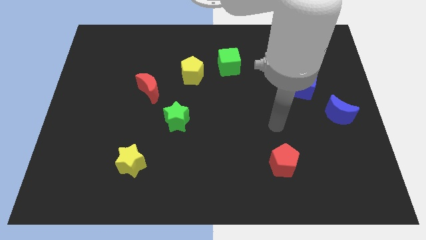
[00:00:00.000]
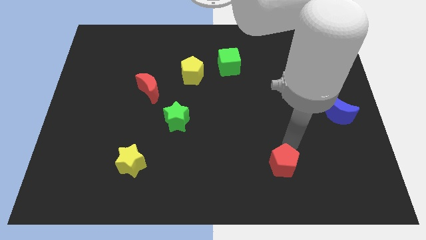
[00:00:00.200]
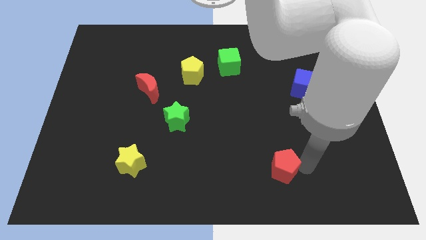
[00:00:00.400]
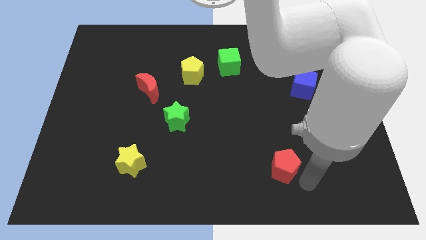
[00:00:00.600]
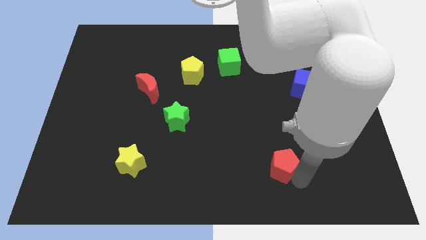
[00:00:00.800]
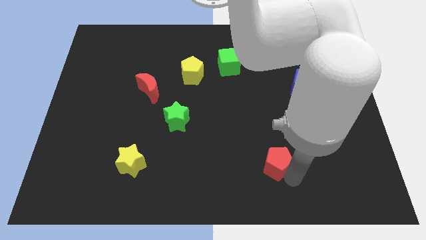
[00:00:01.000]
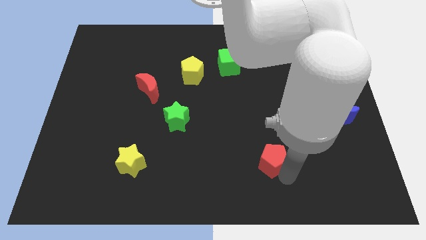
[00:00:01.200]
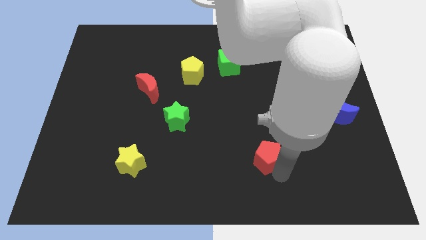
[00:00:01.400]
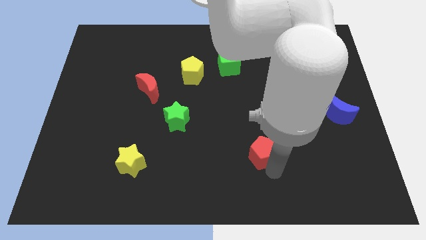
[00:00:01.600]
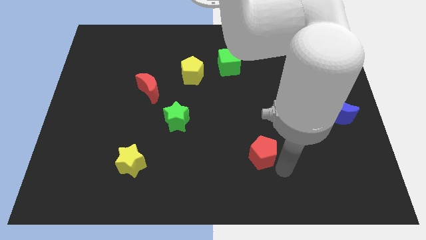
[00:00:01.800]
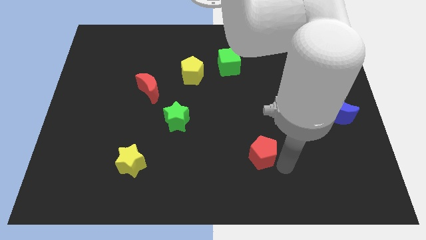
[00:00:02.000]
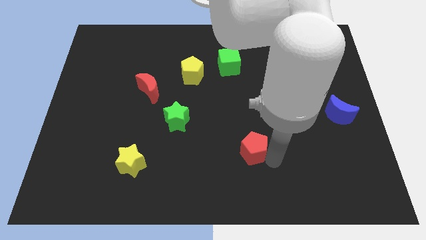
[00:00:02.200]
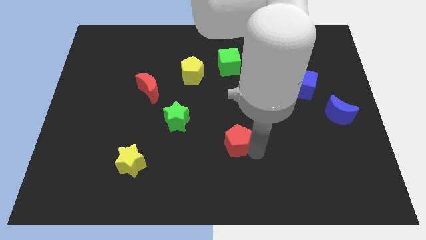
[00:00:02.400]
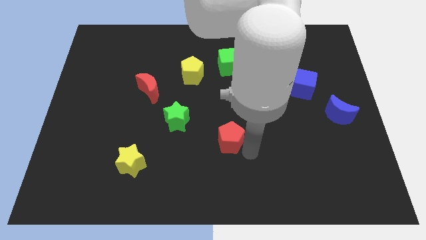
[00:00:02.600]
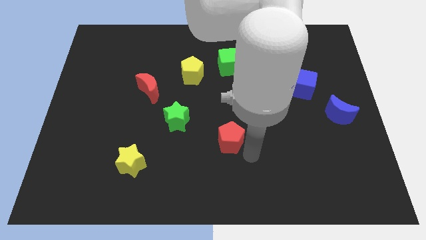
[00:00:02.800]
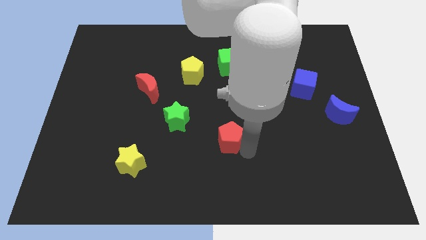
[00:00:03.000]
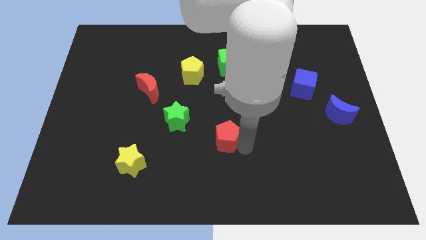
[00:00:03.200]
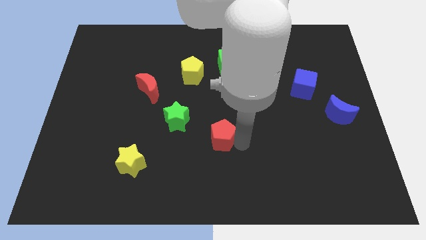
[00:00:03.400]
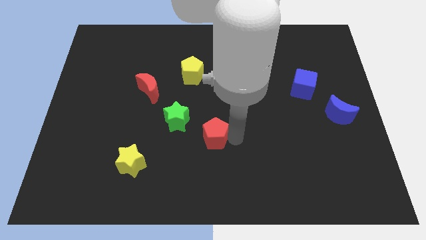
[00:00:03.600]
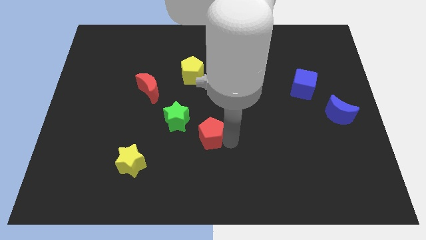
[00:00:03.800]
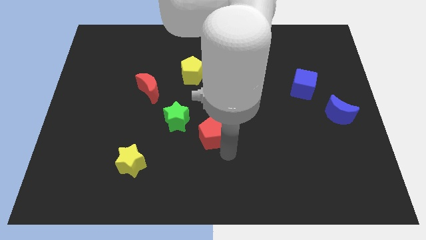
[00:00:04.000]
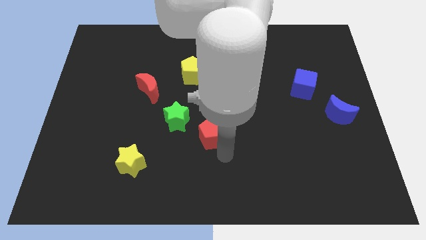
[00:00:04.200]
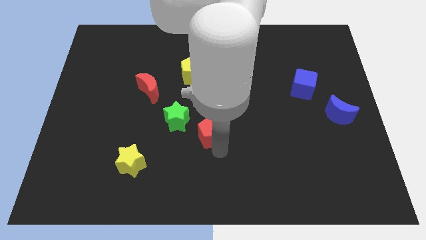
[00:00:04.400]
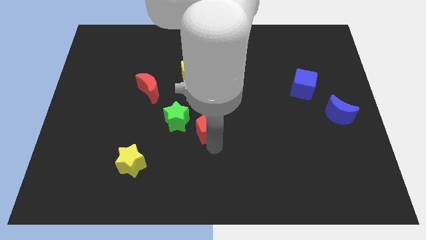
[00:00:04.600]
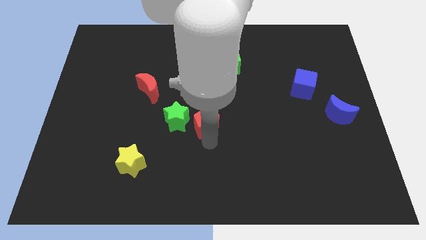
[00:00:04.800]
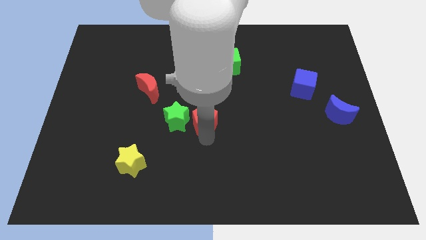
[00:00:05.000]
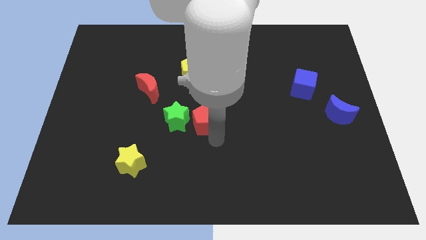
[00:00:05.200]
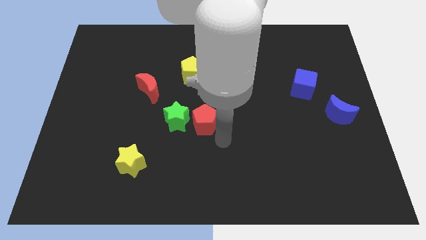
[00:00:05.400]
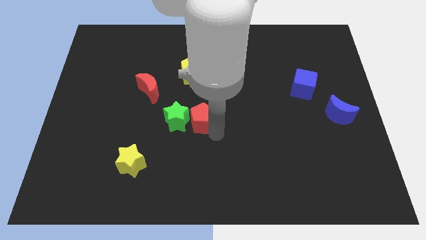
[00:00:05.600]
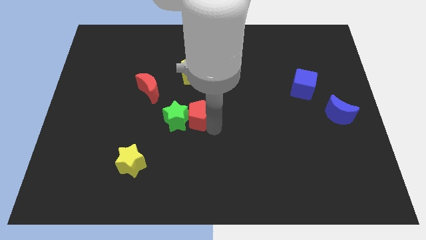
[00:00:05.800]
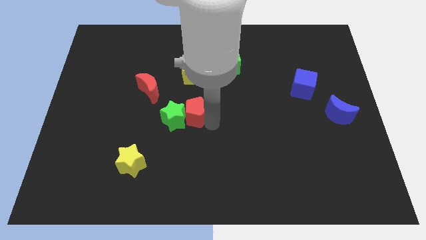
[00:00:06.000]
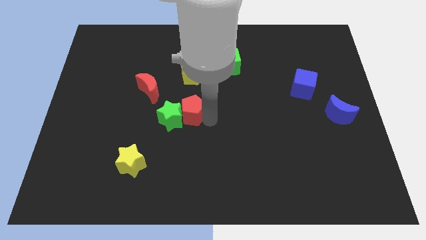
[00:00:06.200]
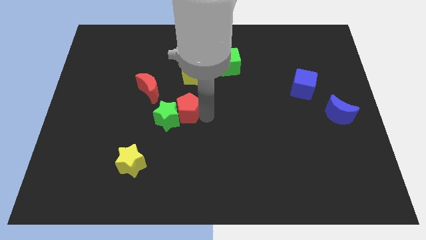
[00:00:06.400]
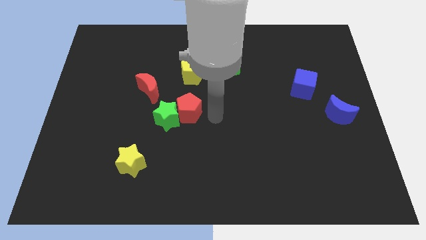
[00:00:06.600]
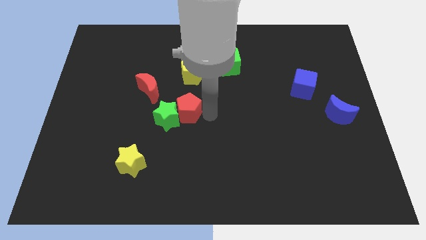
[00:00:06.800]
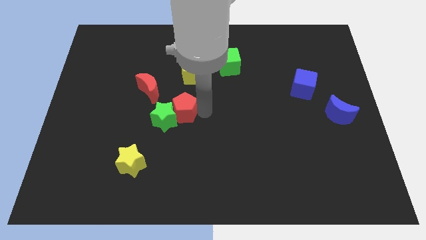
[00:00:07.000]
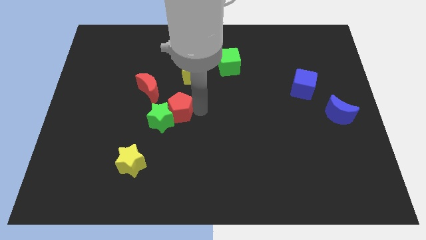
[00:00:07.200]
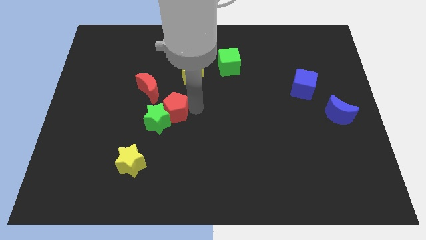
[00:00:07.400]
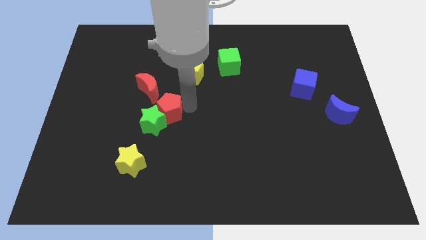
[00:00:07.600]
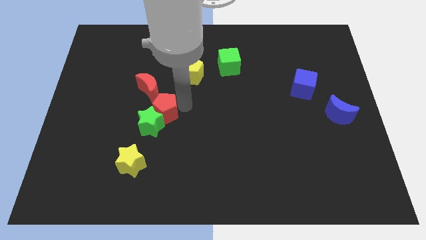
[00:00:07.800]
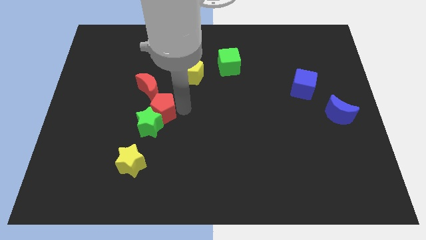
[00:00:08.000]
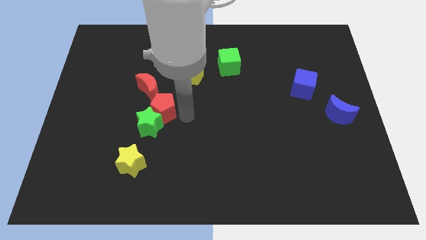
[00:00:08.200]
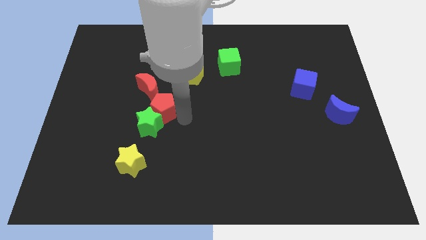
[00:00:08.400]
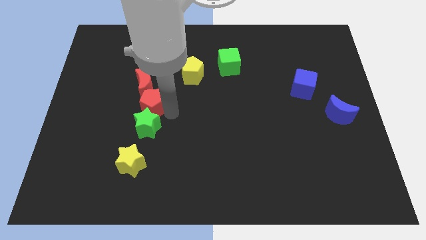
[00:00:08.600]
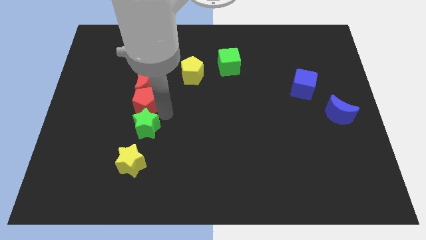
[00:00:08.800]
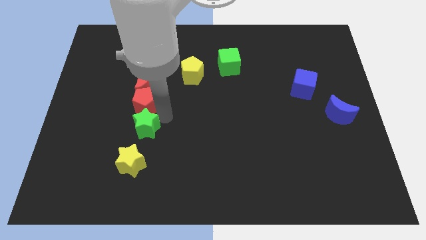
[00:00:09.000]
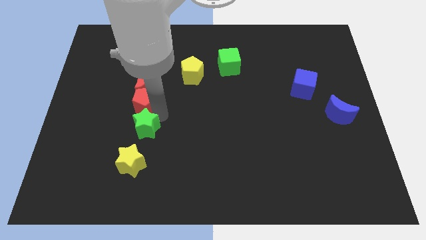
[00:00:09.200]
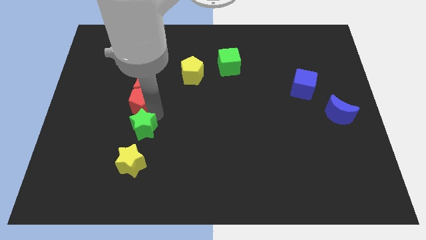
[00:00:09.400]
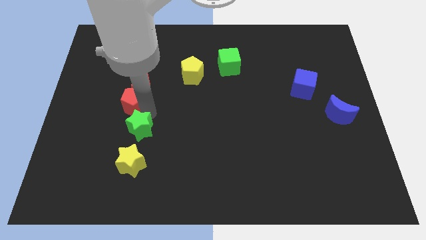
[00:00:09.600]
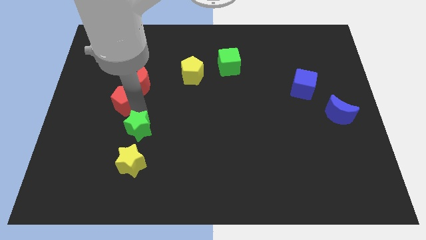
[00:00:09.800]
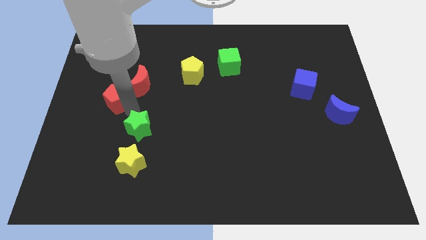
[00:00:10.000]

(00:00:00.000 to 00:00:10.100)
put the red pentagon to the left side of the red moon

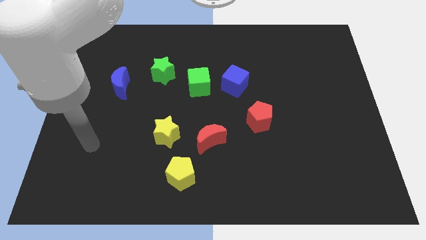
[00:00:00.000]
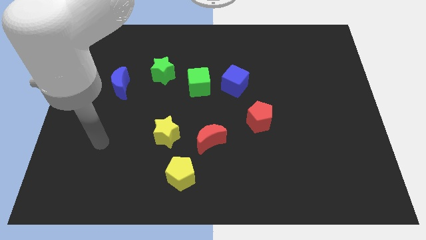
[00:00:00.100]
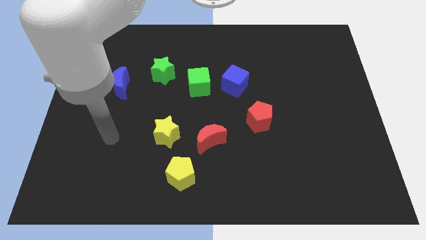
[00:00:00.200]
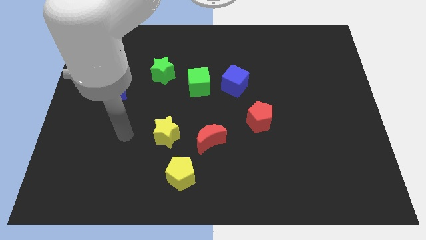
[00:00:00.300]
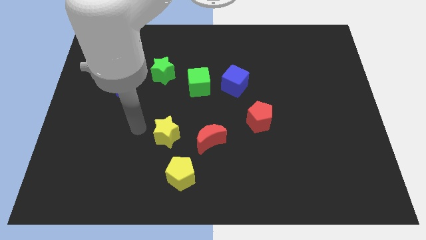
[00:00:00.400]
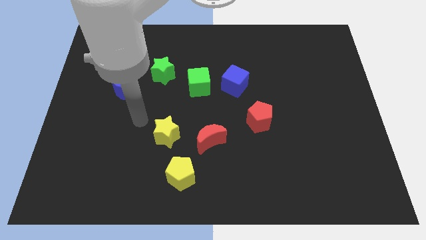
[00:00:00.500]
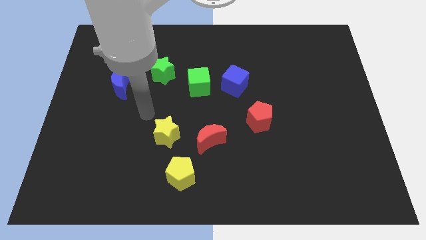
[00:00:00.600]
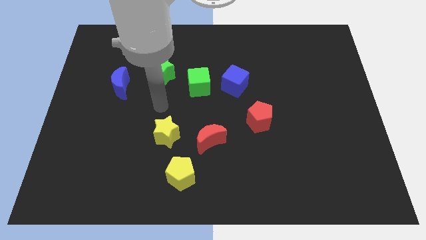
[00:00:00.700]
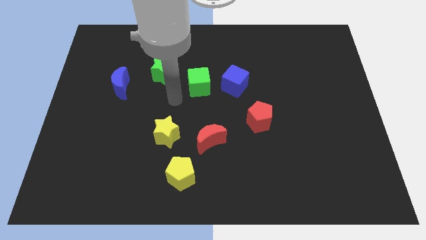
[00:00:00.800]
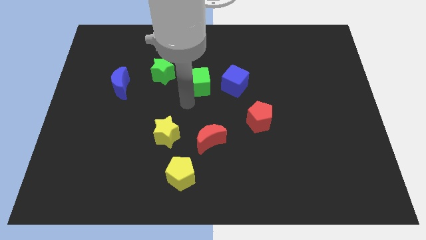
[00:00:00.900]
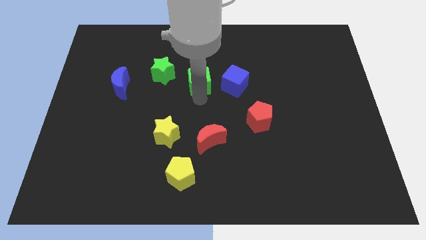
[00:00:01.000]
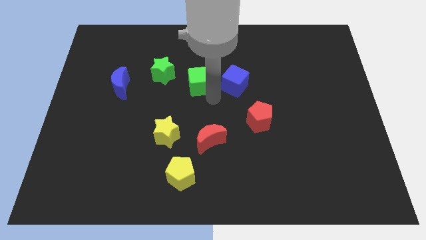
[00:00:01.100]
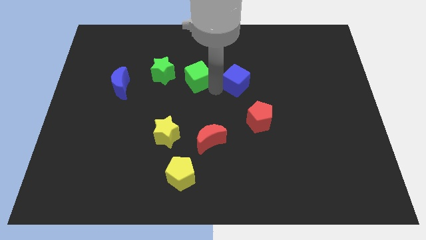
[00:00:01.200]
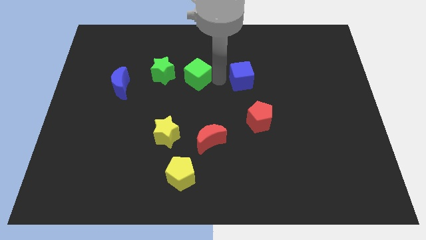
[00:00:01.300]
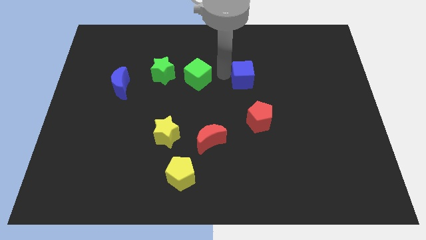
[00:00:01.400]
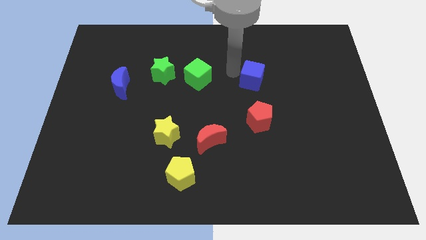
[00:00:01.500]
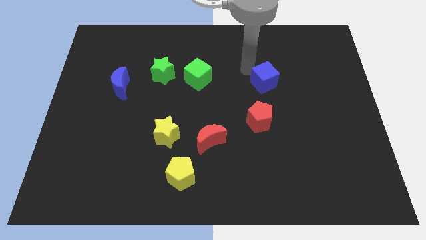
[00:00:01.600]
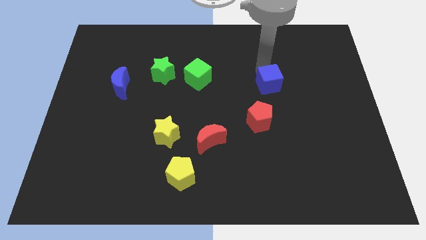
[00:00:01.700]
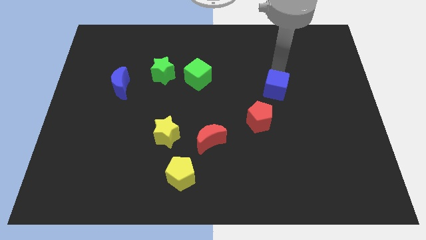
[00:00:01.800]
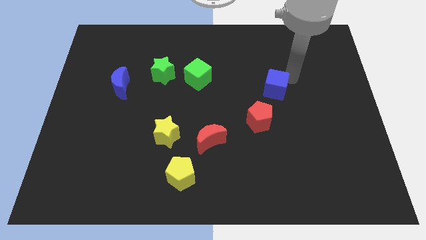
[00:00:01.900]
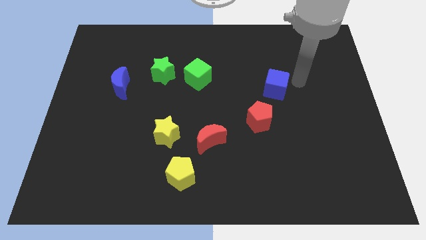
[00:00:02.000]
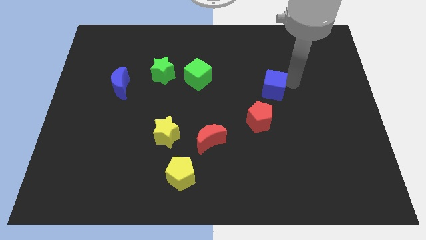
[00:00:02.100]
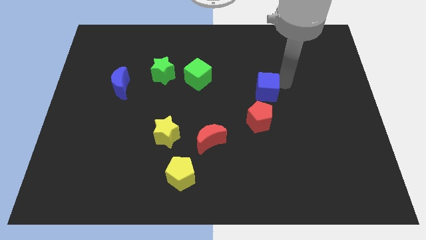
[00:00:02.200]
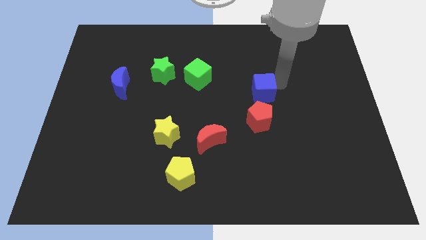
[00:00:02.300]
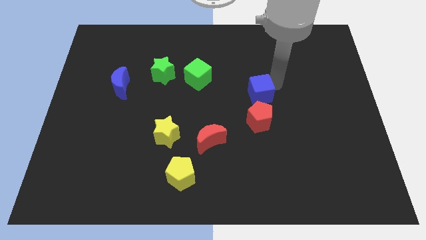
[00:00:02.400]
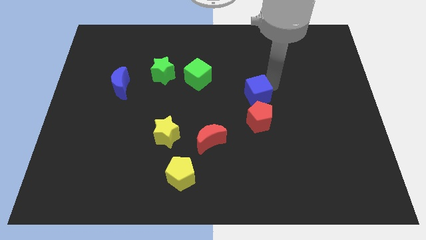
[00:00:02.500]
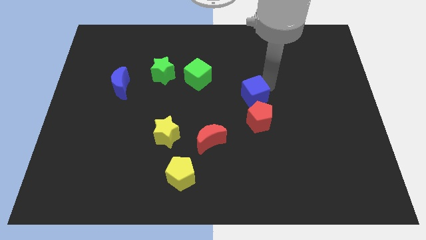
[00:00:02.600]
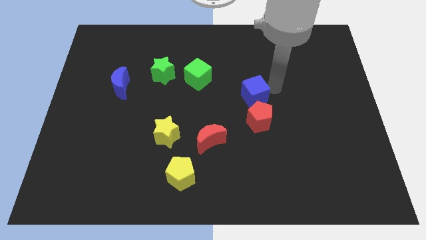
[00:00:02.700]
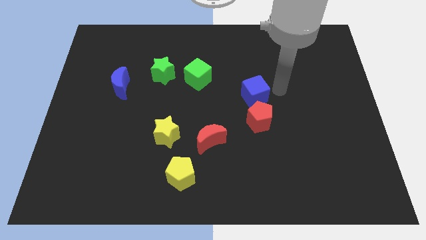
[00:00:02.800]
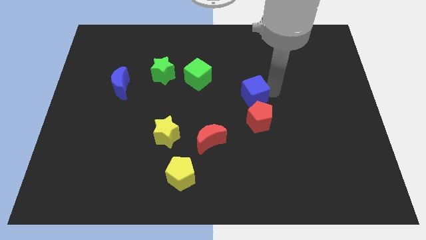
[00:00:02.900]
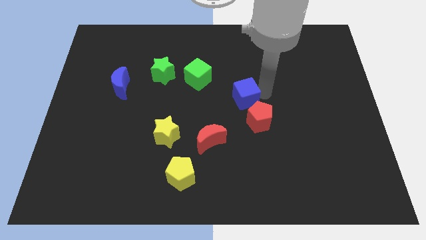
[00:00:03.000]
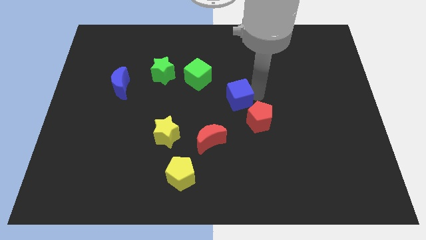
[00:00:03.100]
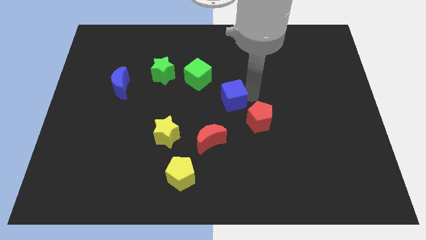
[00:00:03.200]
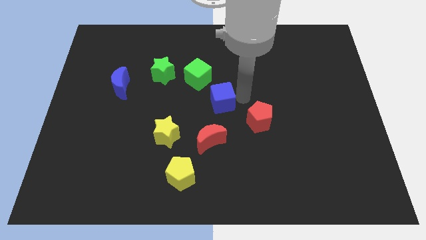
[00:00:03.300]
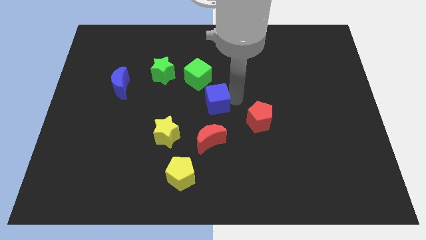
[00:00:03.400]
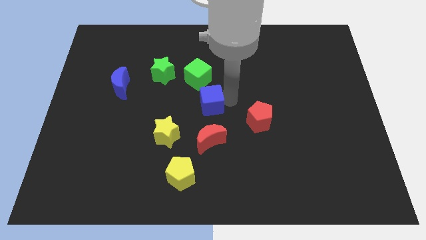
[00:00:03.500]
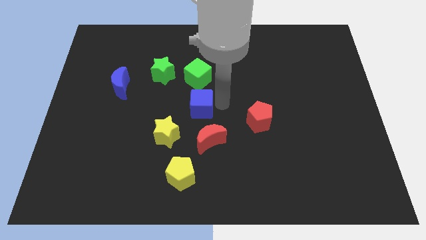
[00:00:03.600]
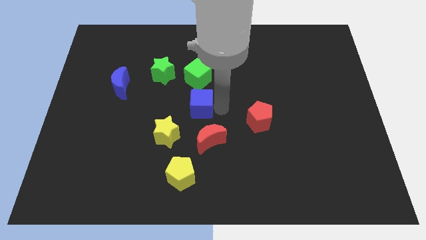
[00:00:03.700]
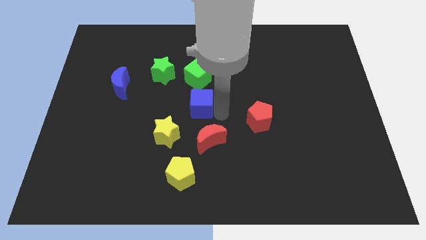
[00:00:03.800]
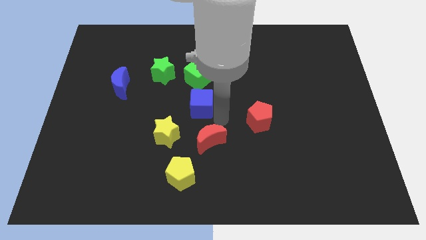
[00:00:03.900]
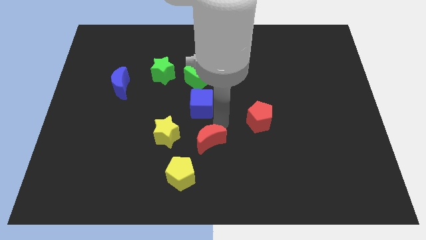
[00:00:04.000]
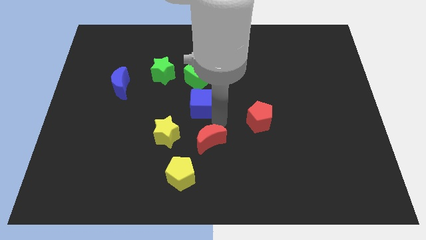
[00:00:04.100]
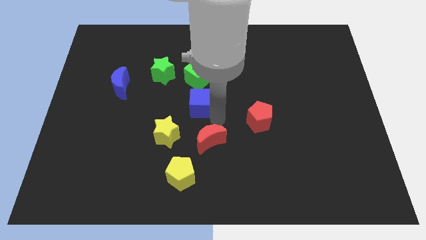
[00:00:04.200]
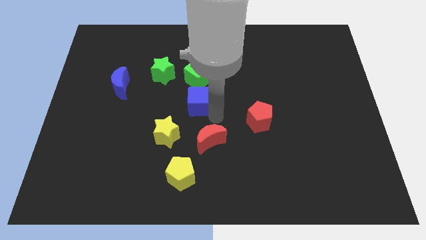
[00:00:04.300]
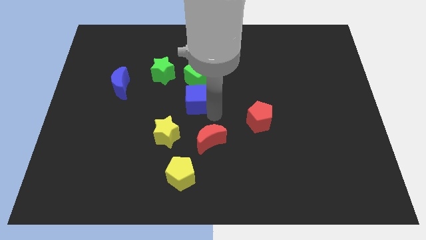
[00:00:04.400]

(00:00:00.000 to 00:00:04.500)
slide the blue cube to the bottom right side of the green star
